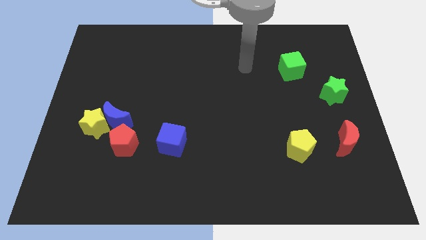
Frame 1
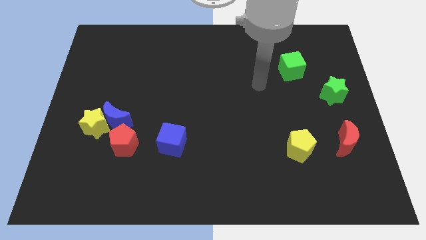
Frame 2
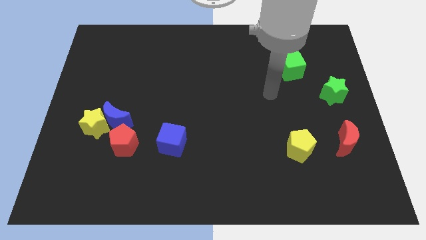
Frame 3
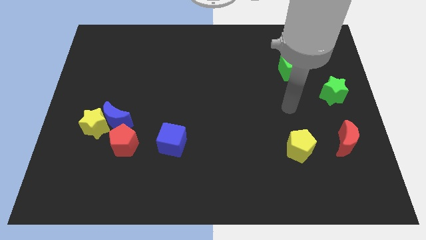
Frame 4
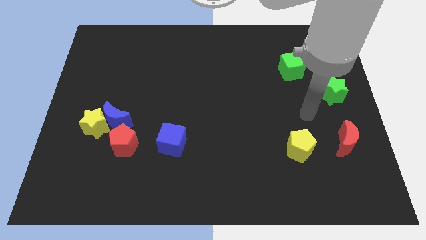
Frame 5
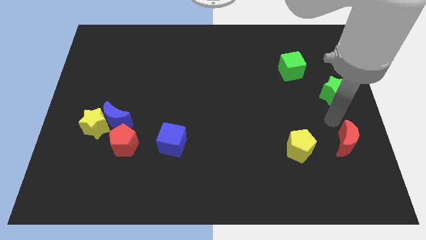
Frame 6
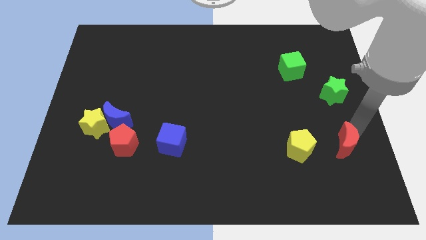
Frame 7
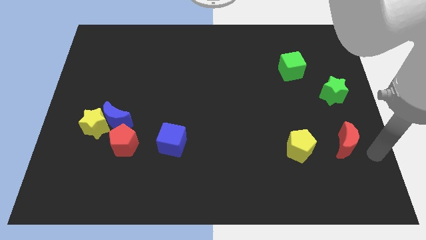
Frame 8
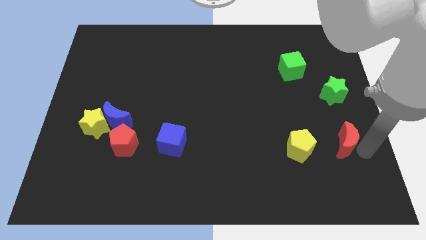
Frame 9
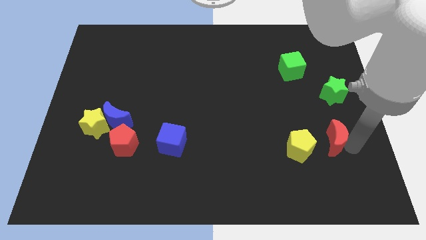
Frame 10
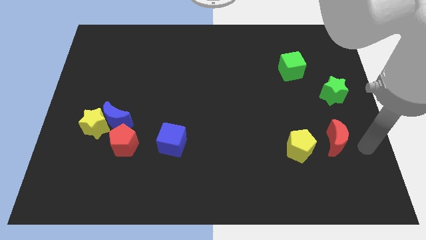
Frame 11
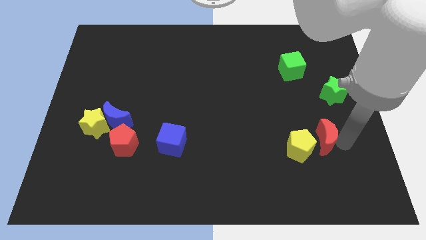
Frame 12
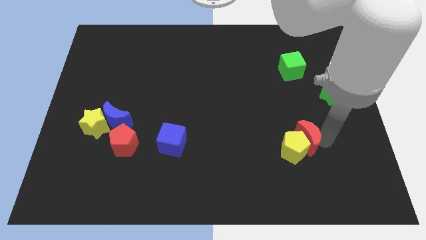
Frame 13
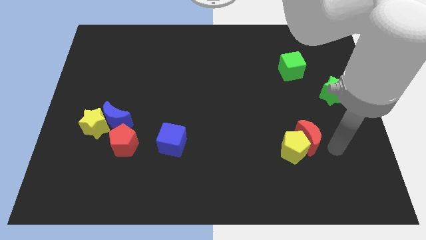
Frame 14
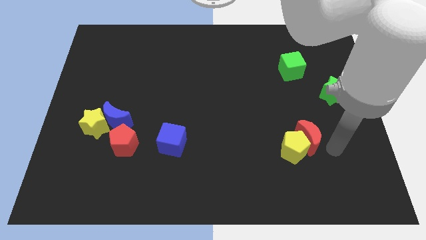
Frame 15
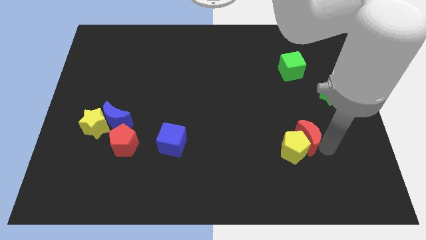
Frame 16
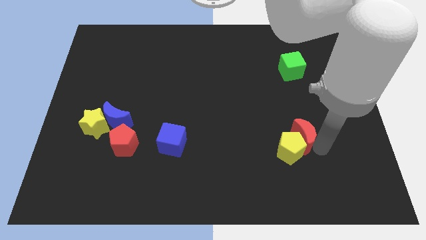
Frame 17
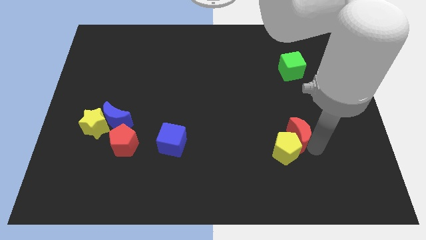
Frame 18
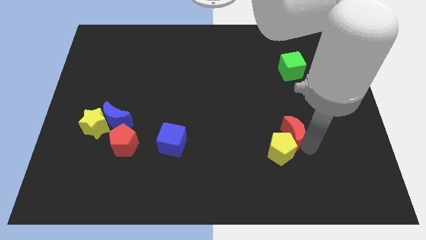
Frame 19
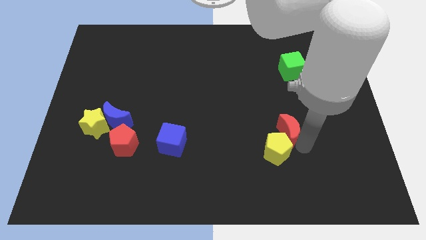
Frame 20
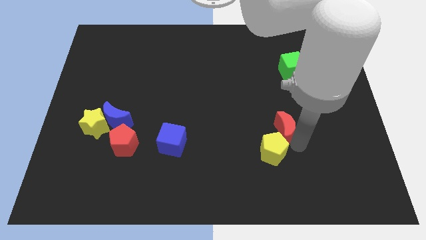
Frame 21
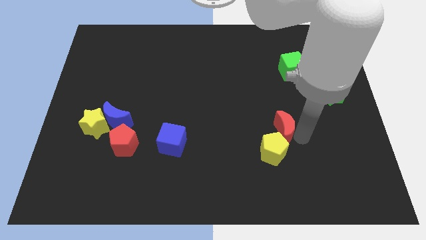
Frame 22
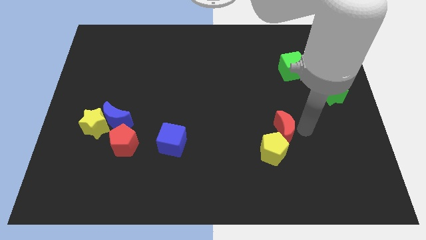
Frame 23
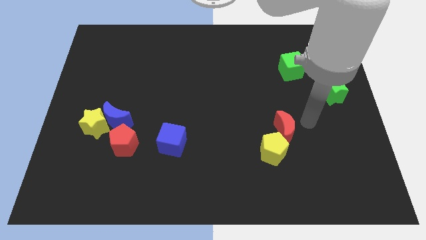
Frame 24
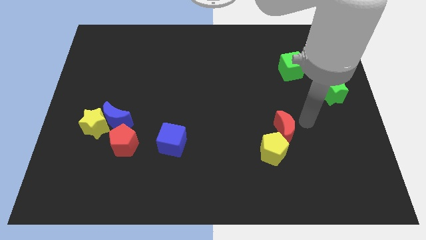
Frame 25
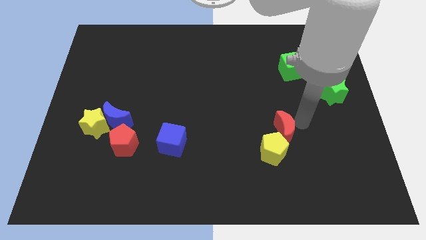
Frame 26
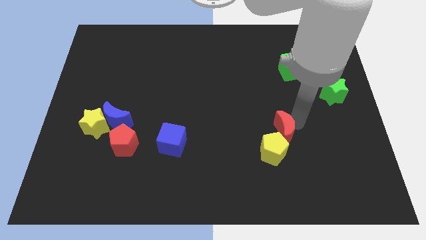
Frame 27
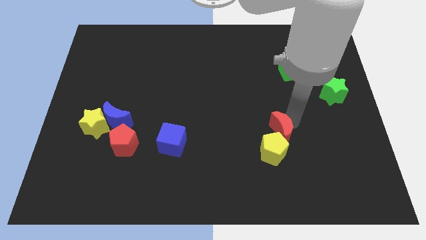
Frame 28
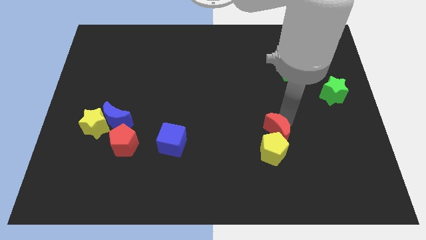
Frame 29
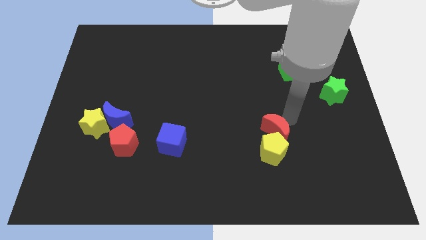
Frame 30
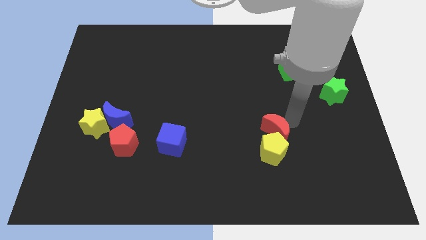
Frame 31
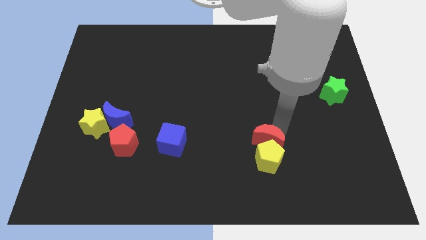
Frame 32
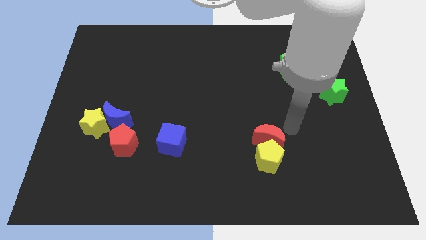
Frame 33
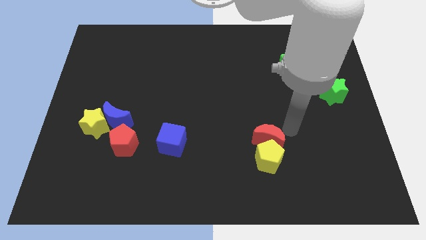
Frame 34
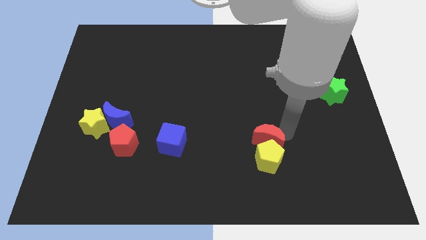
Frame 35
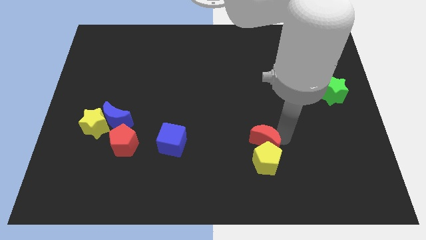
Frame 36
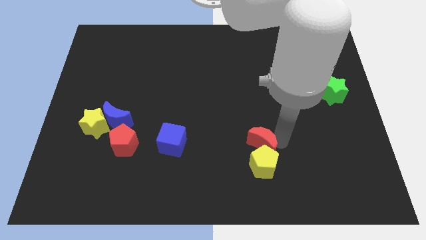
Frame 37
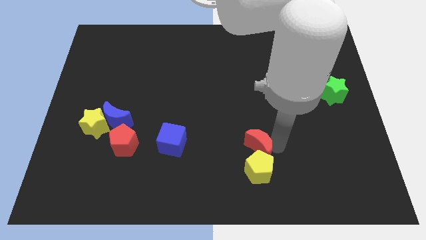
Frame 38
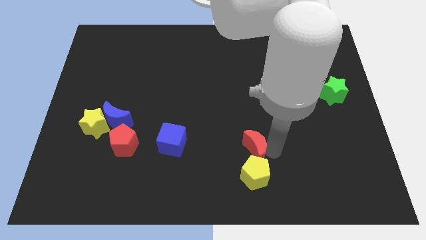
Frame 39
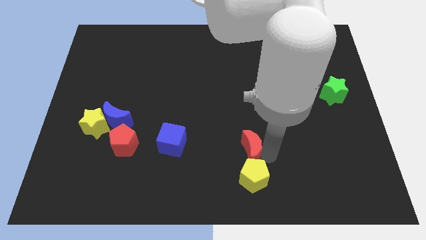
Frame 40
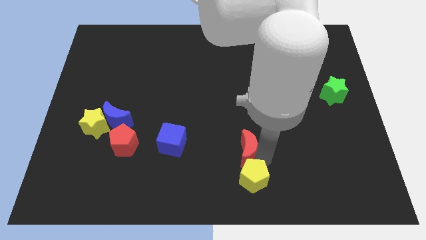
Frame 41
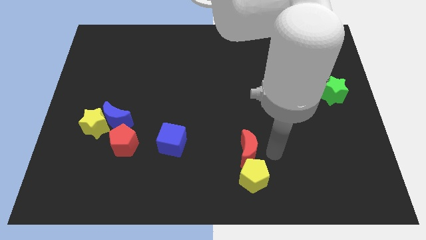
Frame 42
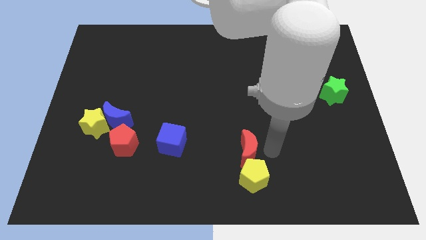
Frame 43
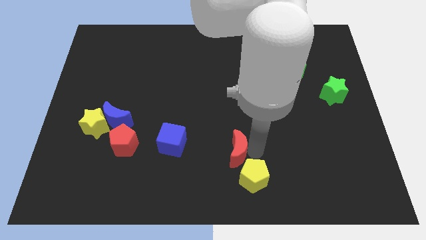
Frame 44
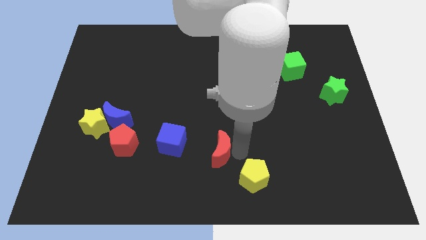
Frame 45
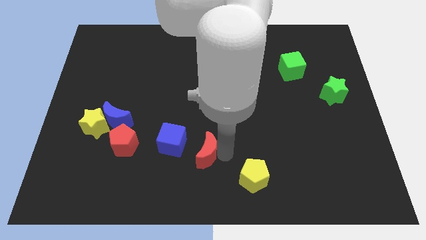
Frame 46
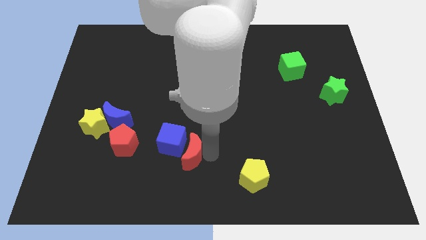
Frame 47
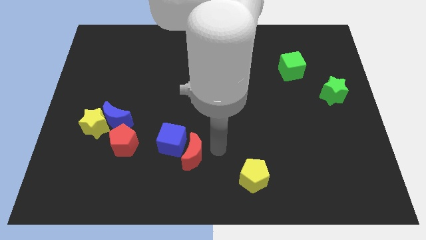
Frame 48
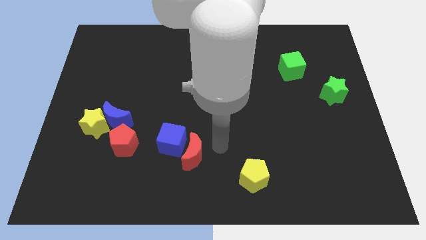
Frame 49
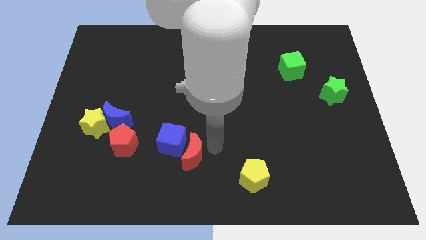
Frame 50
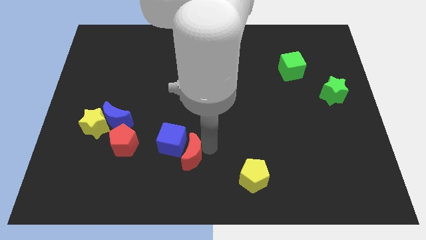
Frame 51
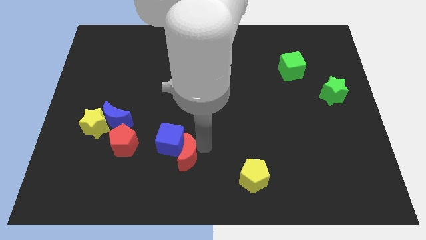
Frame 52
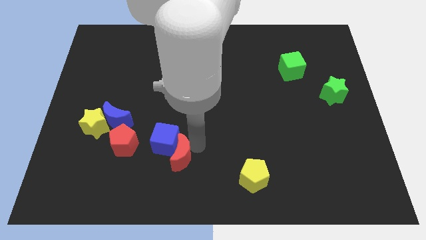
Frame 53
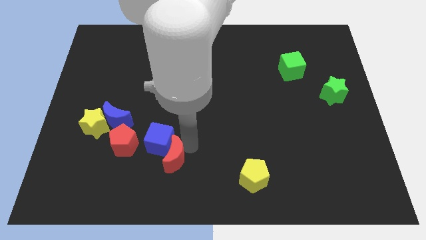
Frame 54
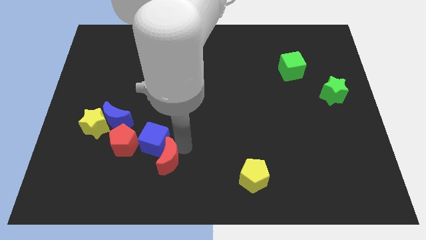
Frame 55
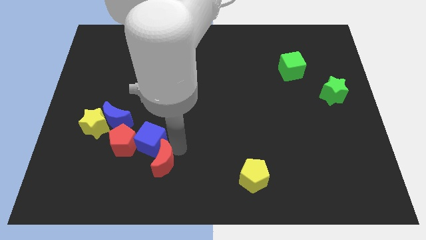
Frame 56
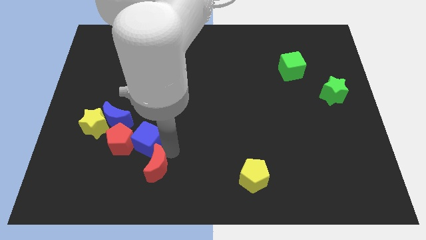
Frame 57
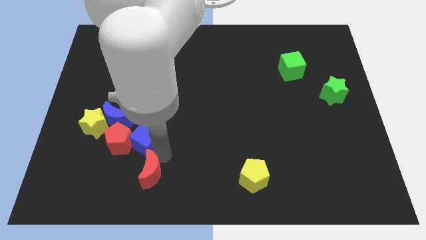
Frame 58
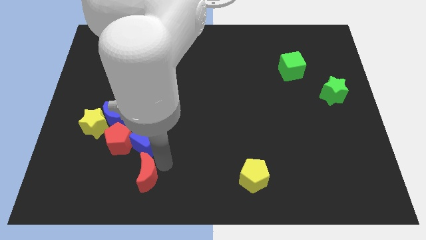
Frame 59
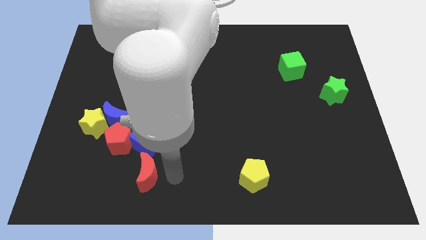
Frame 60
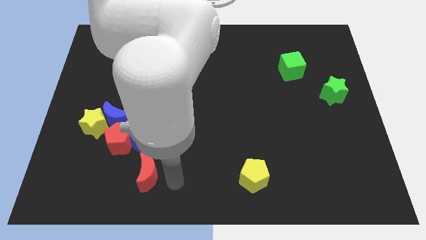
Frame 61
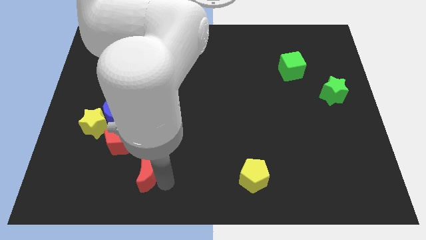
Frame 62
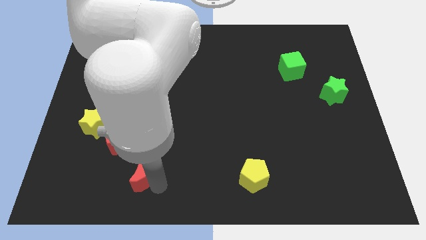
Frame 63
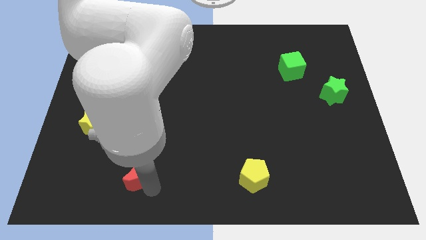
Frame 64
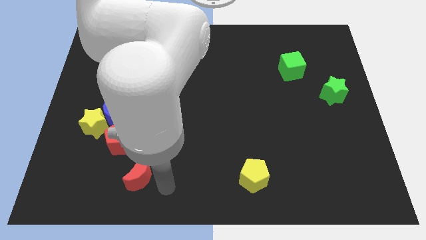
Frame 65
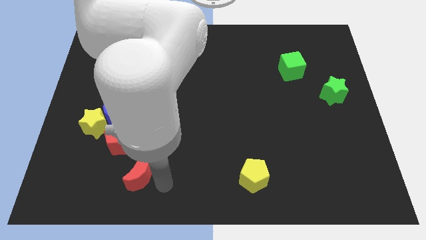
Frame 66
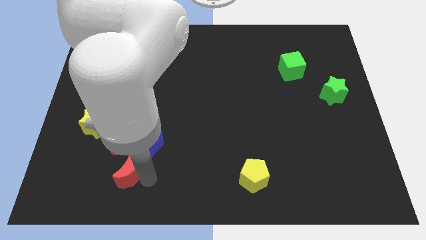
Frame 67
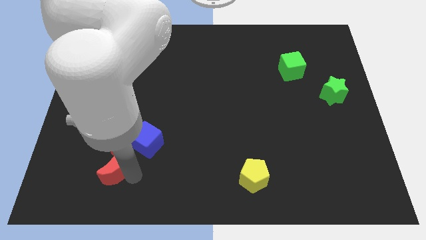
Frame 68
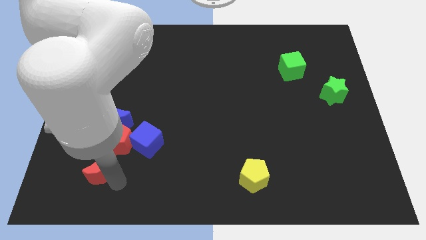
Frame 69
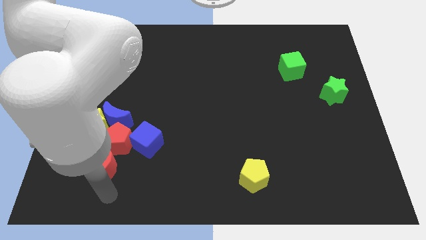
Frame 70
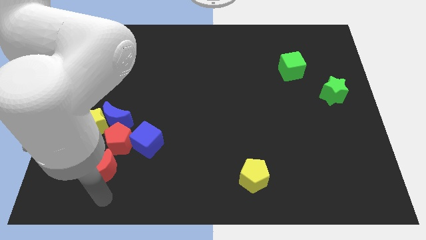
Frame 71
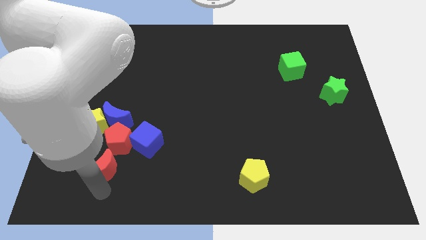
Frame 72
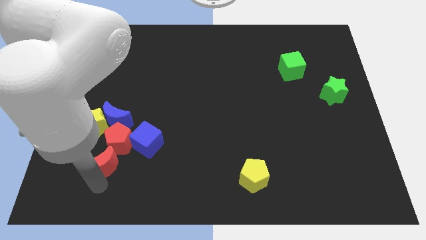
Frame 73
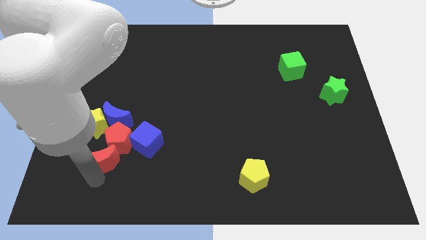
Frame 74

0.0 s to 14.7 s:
push the red moon to the left of the blue cube

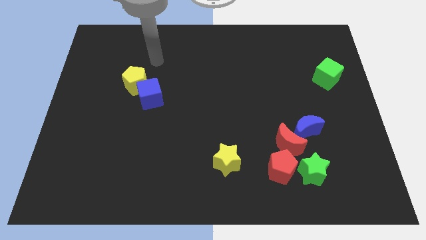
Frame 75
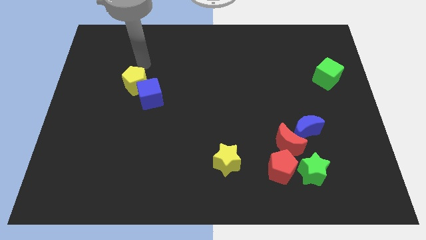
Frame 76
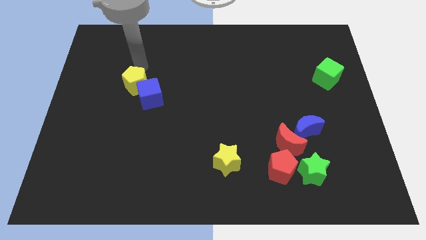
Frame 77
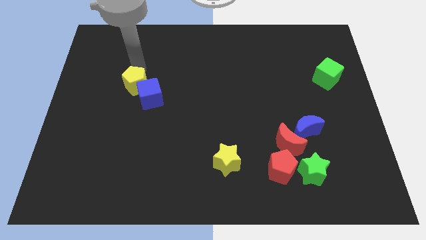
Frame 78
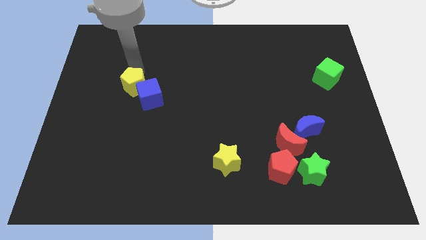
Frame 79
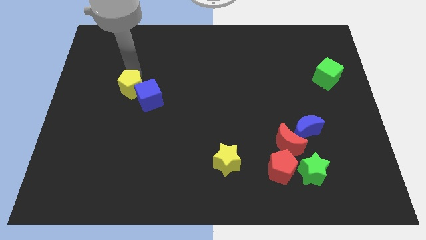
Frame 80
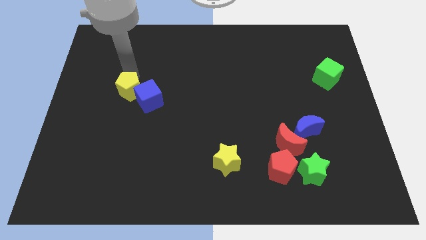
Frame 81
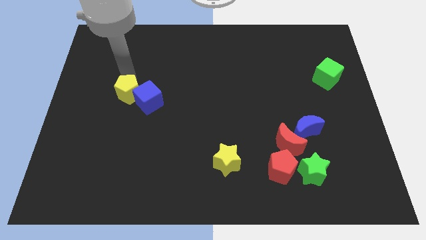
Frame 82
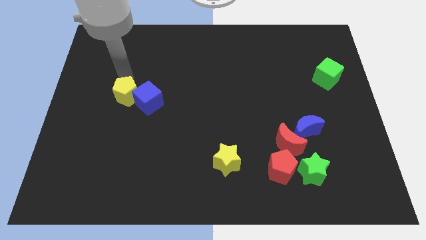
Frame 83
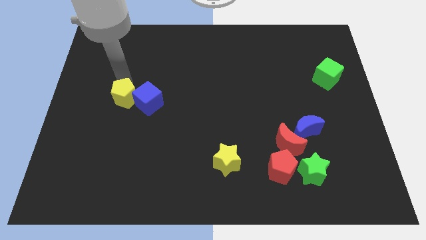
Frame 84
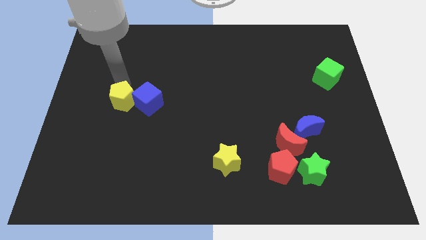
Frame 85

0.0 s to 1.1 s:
move the yellow pentagon diagonally down and to the left of the blue cube
